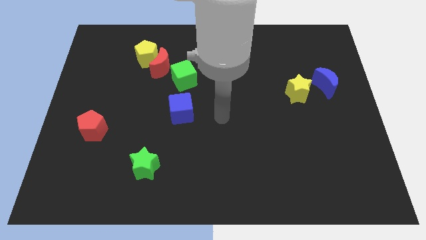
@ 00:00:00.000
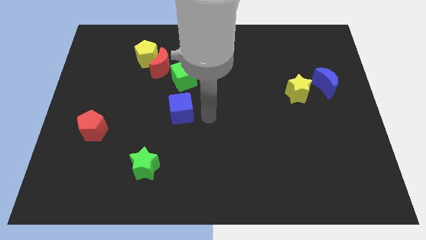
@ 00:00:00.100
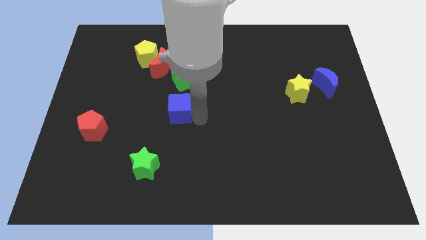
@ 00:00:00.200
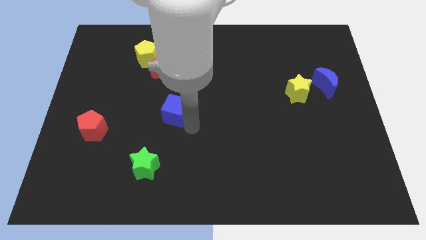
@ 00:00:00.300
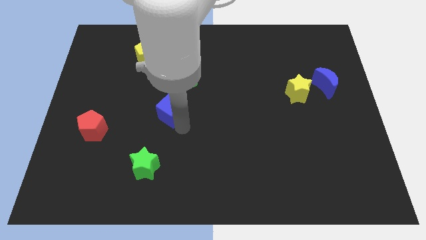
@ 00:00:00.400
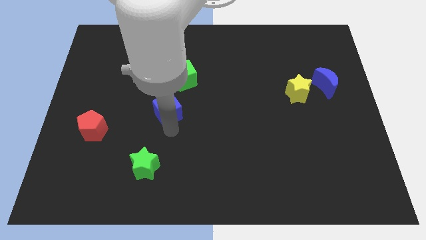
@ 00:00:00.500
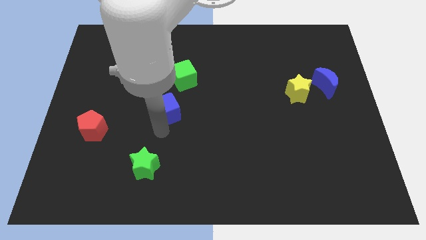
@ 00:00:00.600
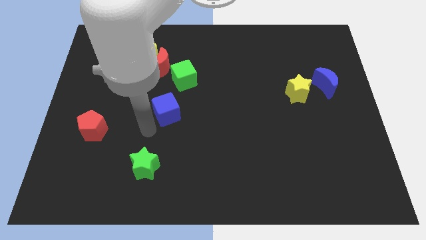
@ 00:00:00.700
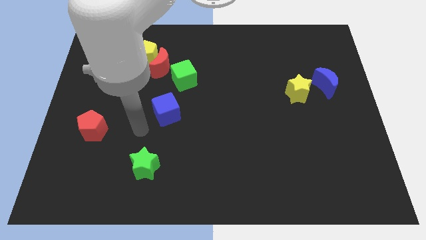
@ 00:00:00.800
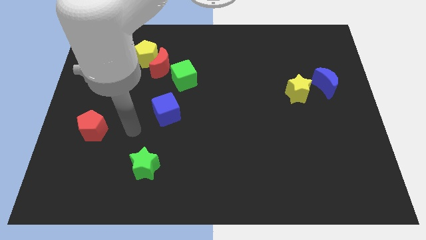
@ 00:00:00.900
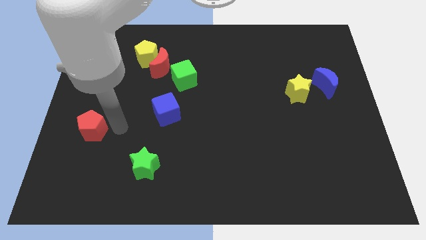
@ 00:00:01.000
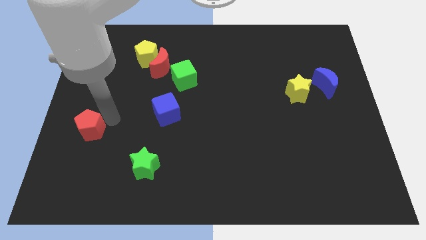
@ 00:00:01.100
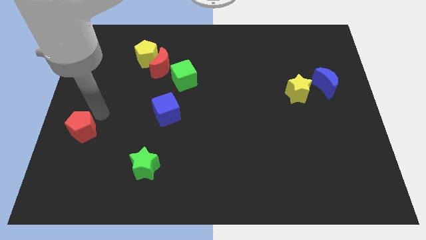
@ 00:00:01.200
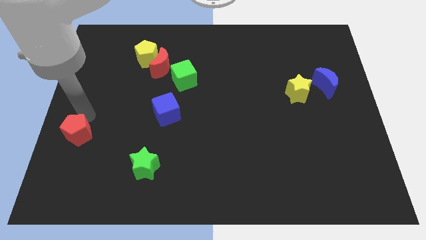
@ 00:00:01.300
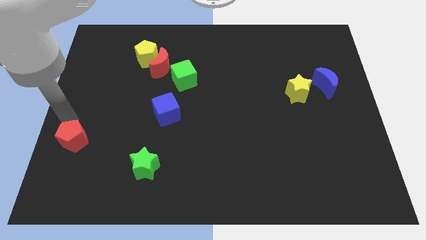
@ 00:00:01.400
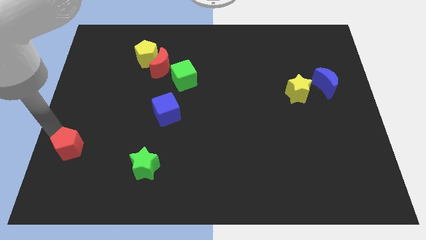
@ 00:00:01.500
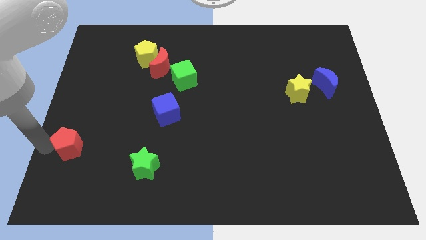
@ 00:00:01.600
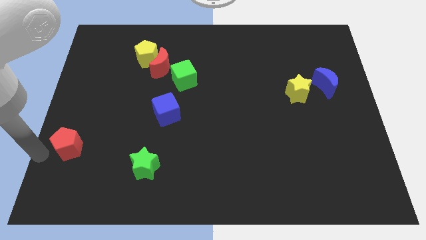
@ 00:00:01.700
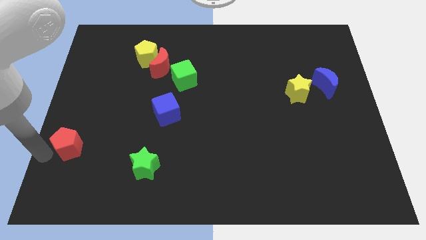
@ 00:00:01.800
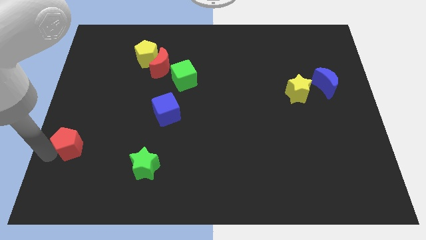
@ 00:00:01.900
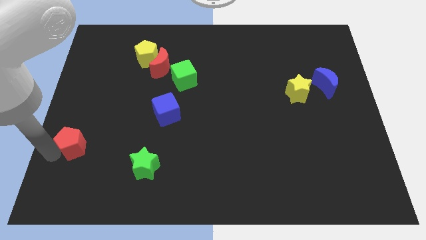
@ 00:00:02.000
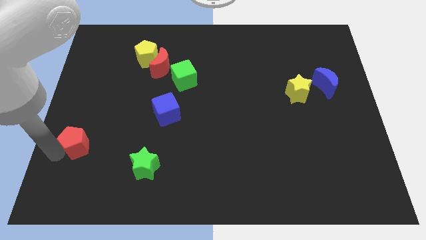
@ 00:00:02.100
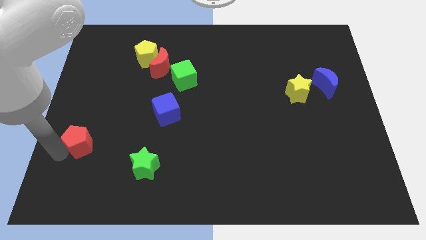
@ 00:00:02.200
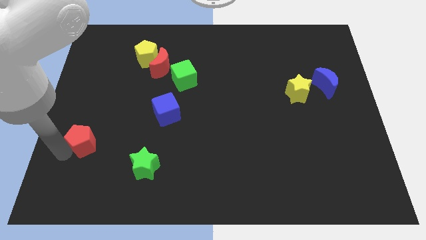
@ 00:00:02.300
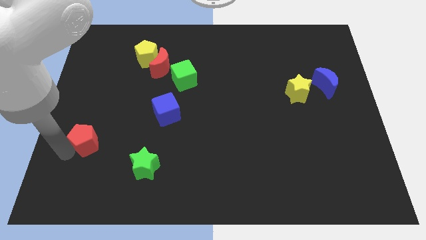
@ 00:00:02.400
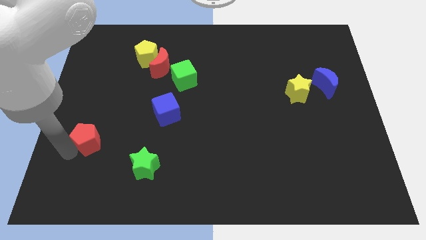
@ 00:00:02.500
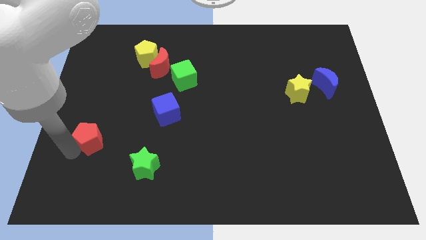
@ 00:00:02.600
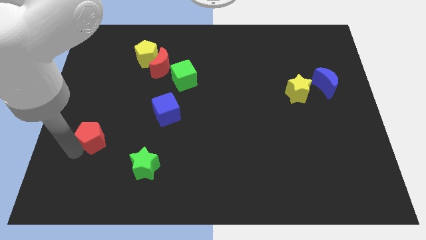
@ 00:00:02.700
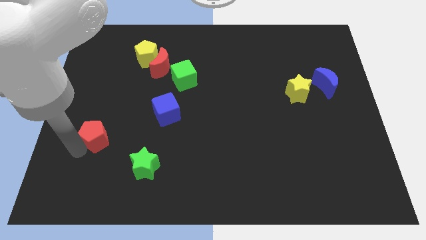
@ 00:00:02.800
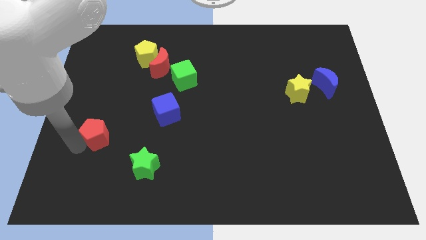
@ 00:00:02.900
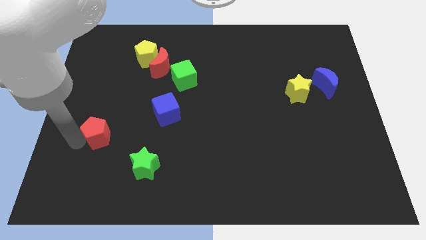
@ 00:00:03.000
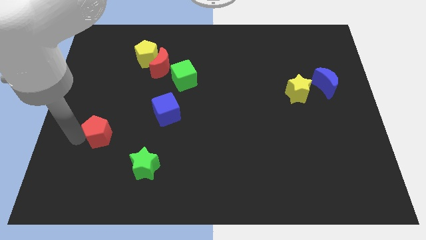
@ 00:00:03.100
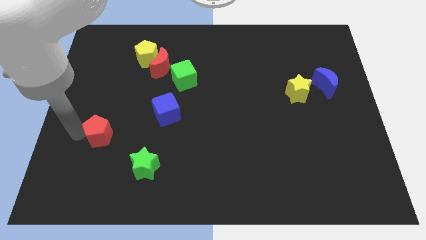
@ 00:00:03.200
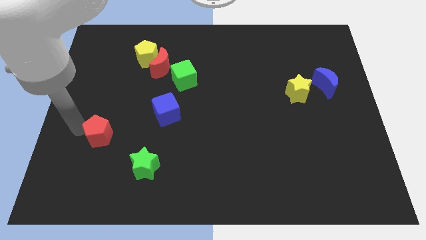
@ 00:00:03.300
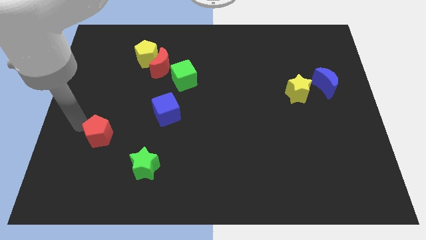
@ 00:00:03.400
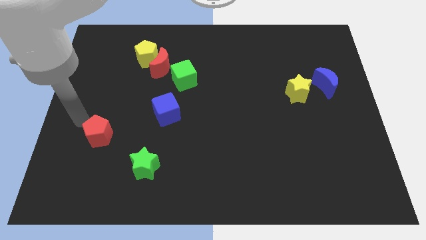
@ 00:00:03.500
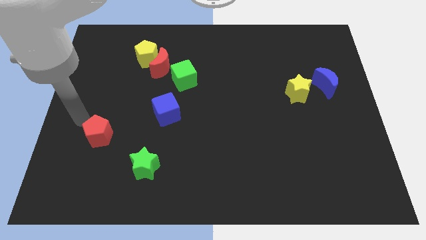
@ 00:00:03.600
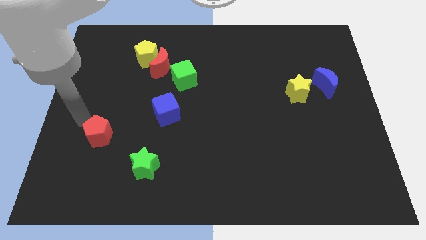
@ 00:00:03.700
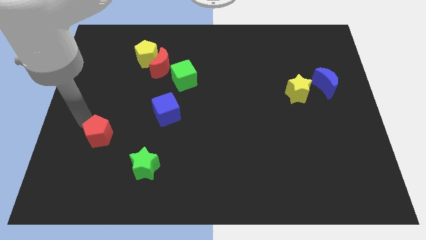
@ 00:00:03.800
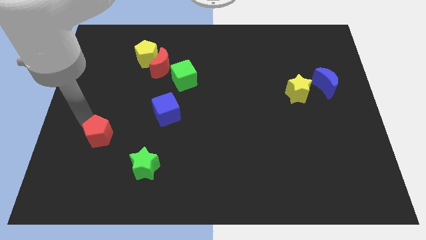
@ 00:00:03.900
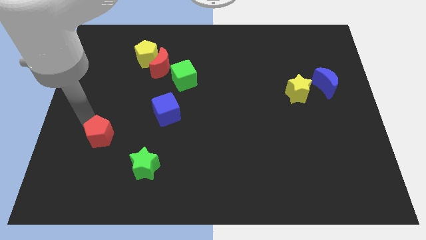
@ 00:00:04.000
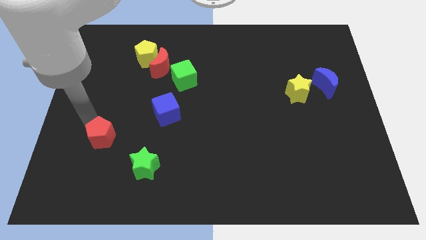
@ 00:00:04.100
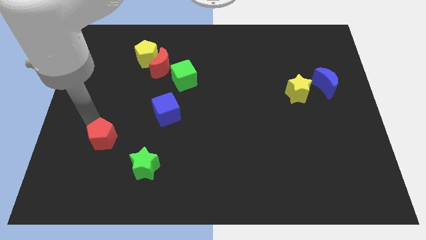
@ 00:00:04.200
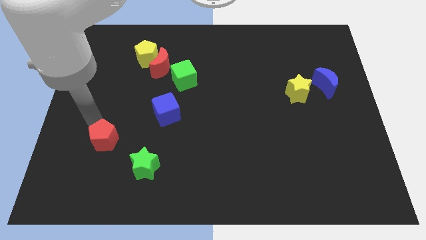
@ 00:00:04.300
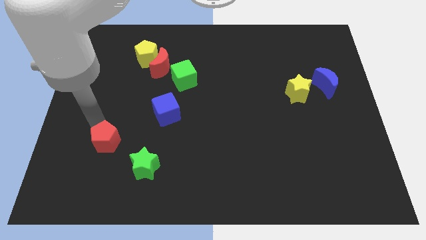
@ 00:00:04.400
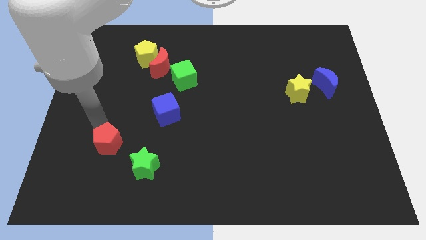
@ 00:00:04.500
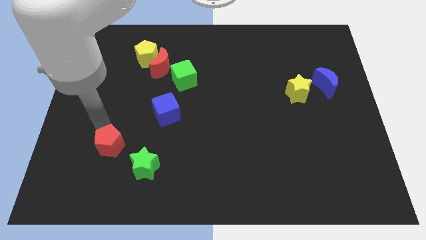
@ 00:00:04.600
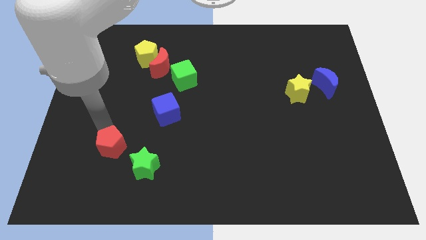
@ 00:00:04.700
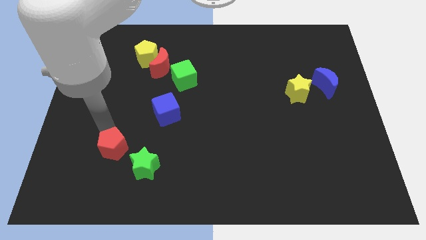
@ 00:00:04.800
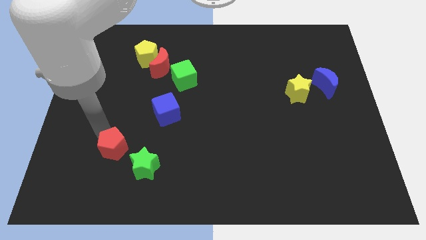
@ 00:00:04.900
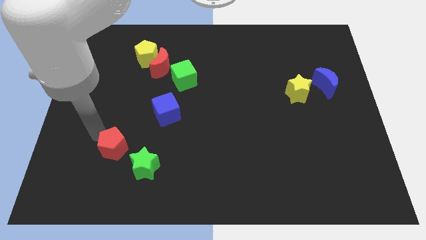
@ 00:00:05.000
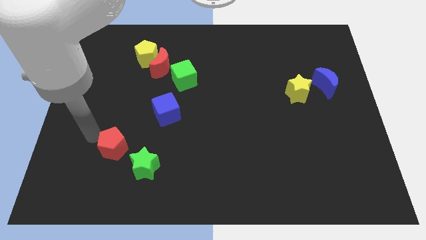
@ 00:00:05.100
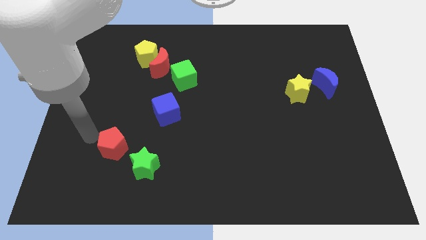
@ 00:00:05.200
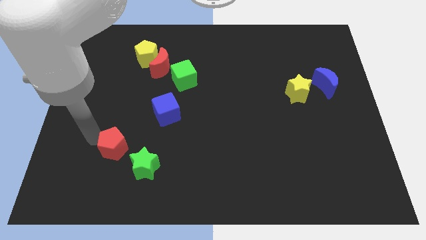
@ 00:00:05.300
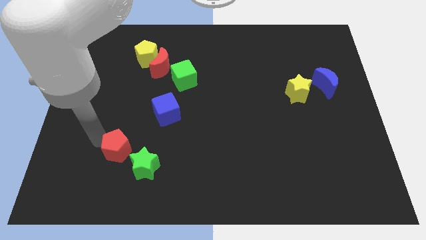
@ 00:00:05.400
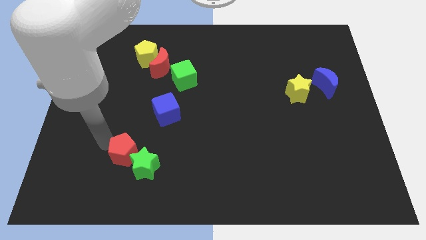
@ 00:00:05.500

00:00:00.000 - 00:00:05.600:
put the red pentagon next to the green star
